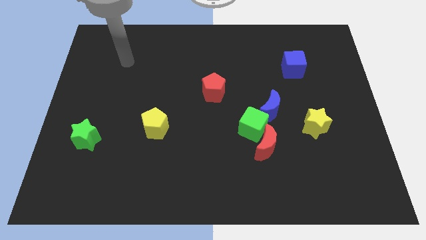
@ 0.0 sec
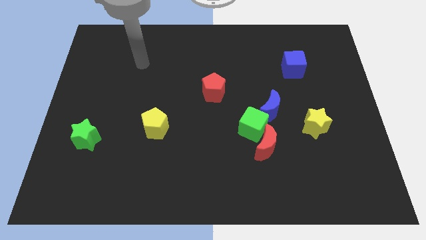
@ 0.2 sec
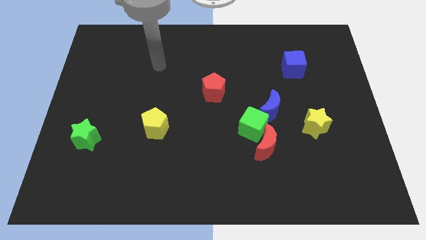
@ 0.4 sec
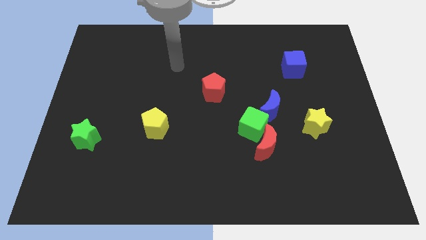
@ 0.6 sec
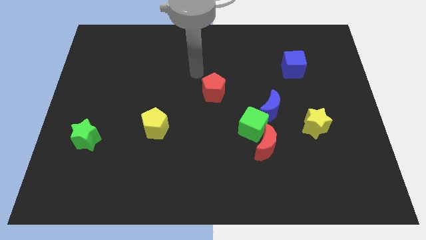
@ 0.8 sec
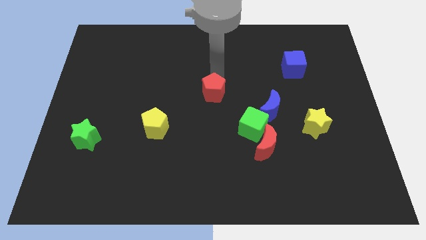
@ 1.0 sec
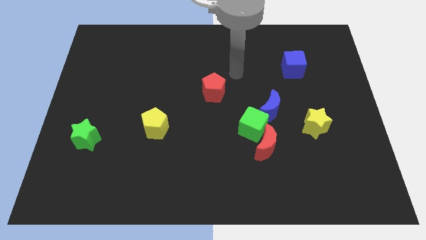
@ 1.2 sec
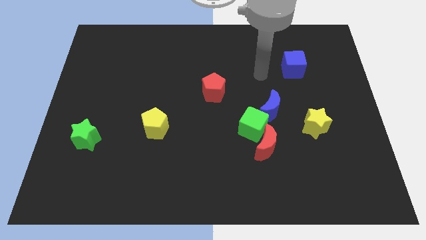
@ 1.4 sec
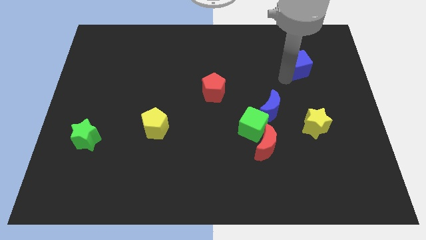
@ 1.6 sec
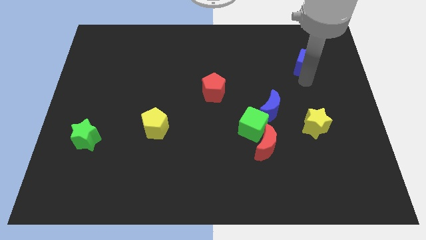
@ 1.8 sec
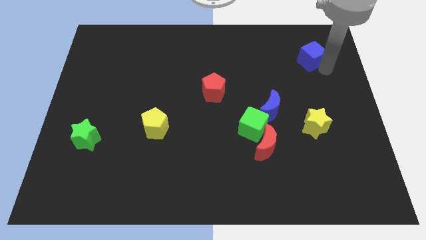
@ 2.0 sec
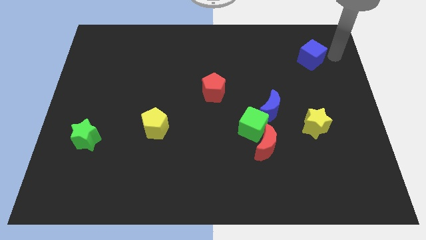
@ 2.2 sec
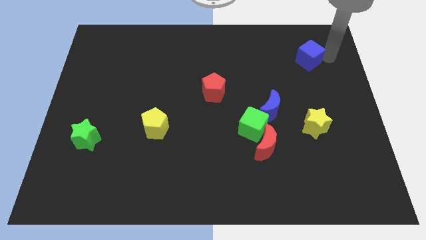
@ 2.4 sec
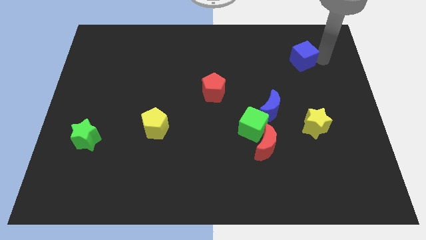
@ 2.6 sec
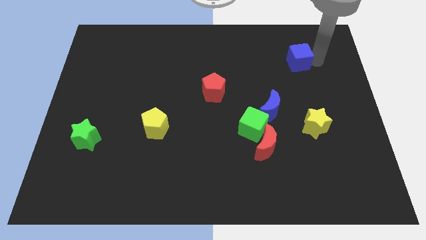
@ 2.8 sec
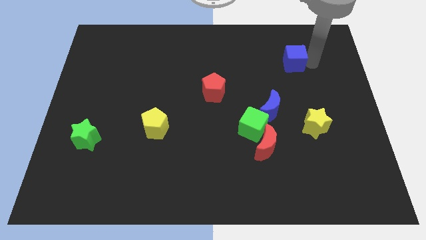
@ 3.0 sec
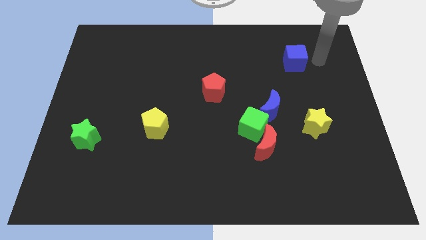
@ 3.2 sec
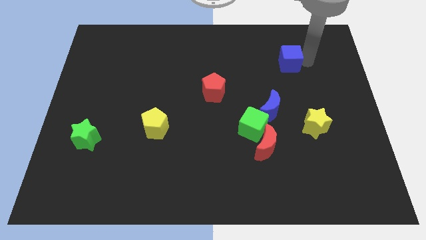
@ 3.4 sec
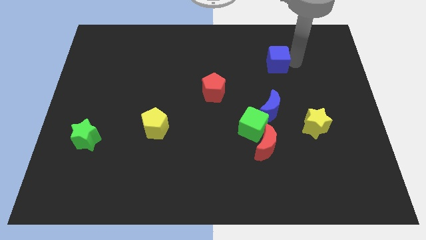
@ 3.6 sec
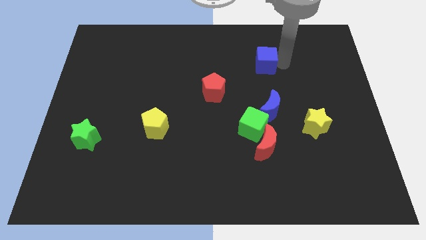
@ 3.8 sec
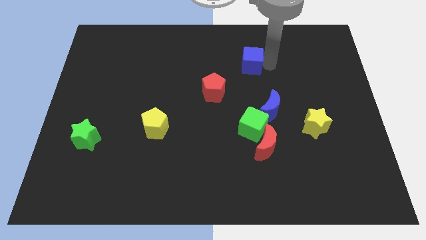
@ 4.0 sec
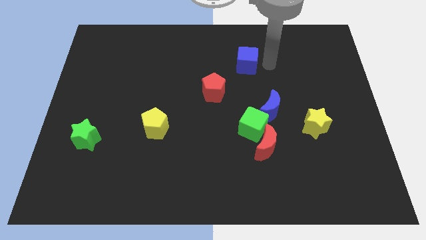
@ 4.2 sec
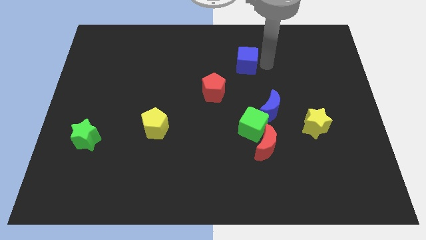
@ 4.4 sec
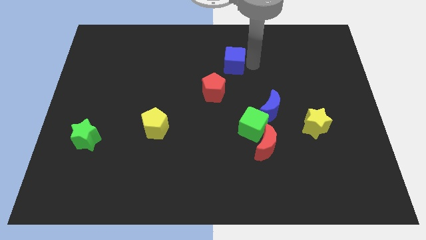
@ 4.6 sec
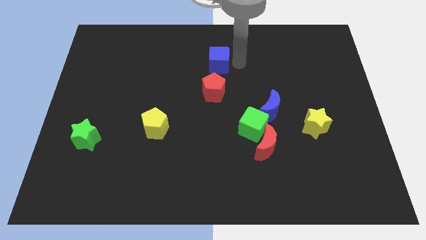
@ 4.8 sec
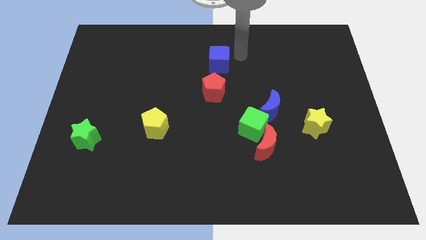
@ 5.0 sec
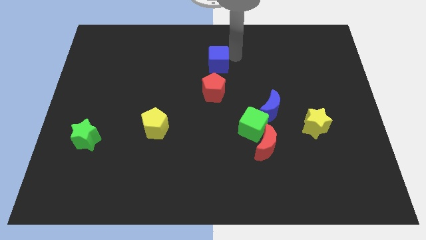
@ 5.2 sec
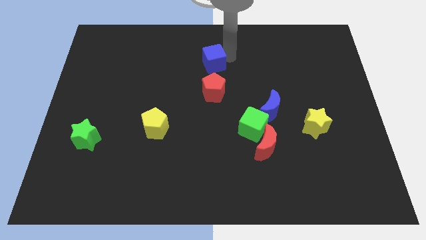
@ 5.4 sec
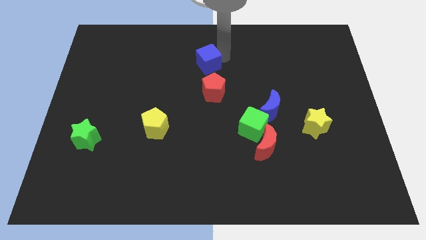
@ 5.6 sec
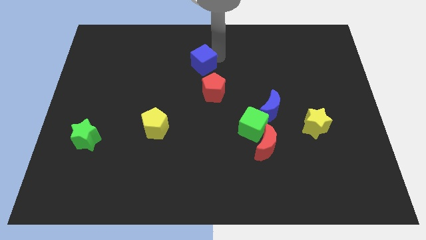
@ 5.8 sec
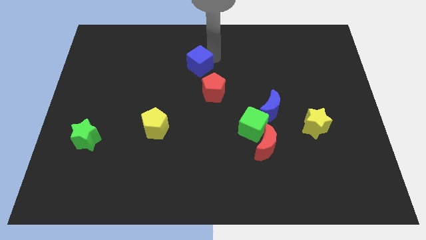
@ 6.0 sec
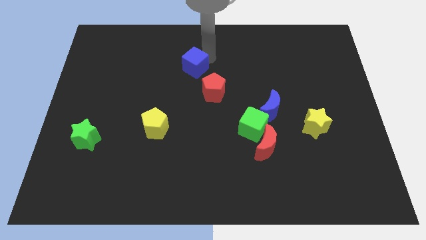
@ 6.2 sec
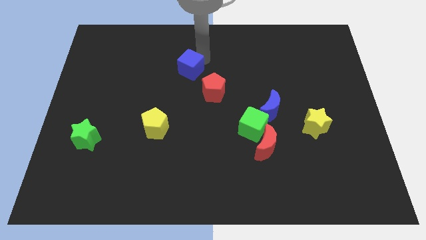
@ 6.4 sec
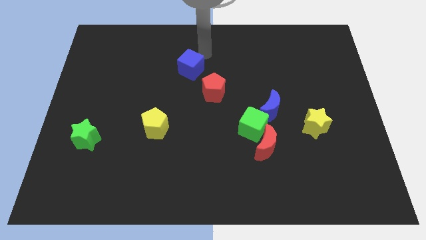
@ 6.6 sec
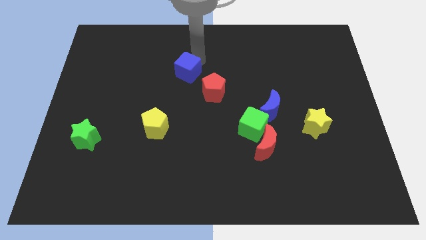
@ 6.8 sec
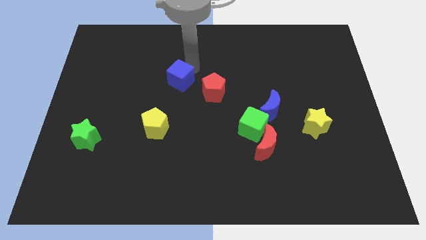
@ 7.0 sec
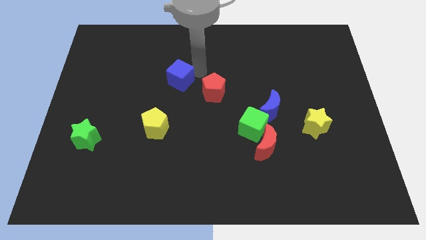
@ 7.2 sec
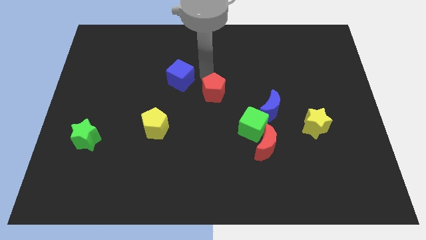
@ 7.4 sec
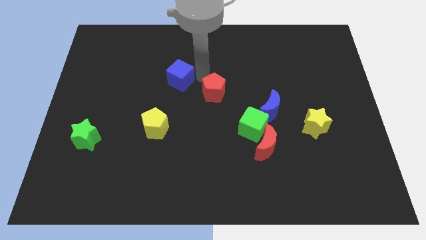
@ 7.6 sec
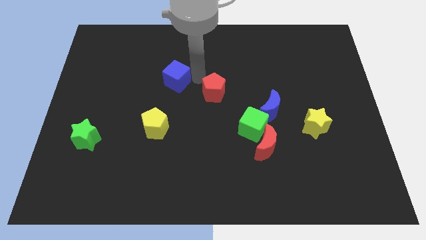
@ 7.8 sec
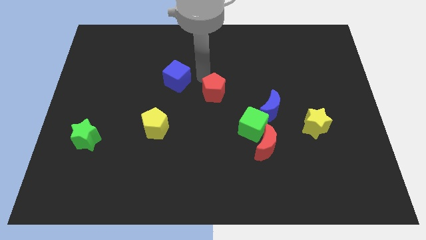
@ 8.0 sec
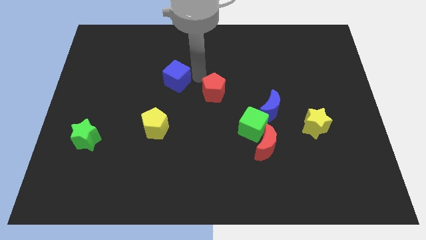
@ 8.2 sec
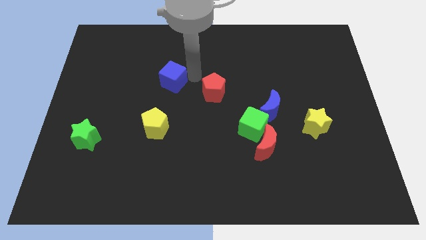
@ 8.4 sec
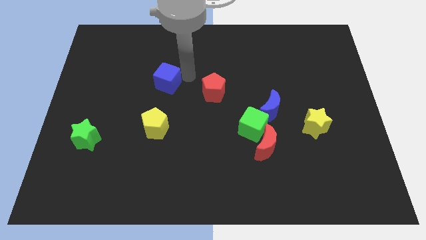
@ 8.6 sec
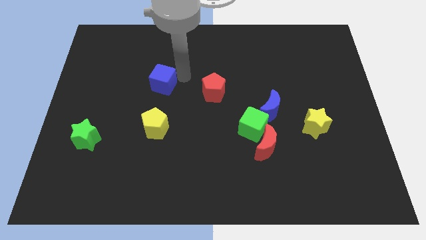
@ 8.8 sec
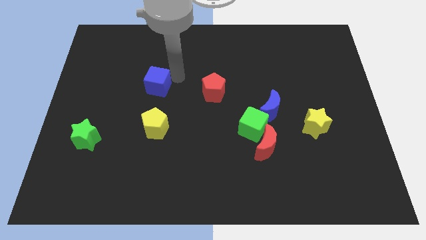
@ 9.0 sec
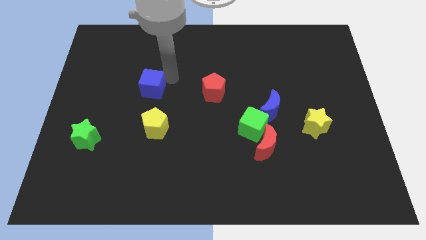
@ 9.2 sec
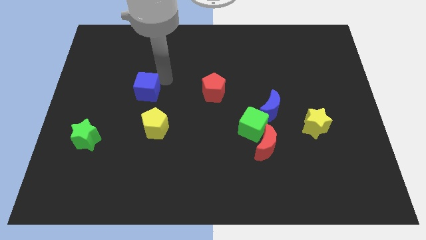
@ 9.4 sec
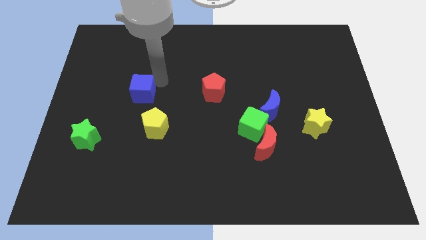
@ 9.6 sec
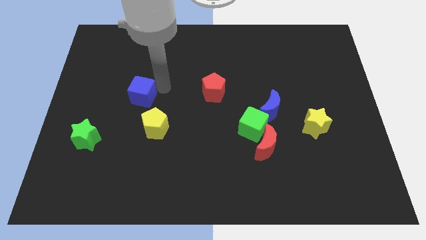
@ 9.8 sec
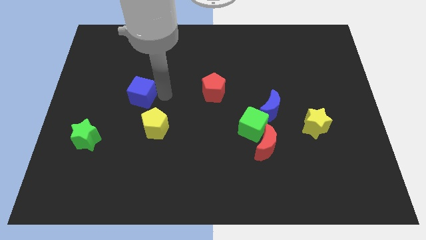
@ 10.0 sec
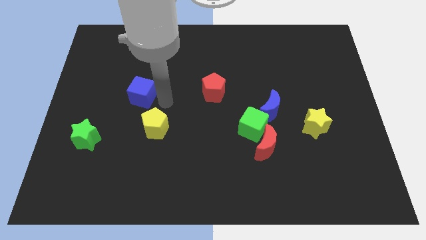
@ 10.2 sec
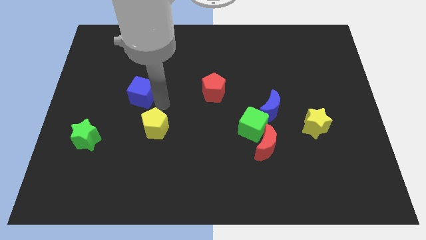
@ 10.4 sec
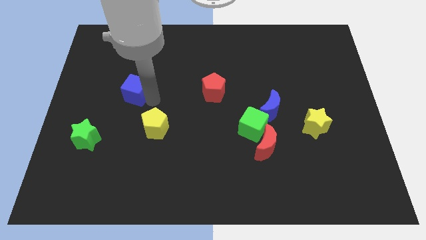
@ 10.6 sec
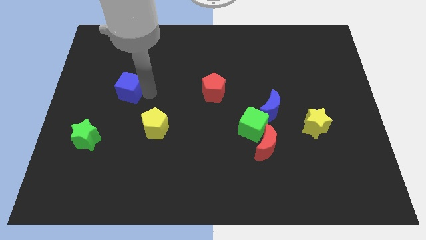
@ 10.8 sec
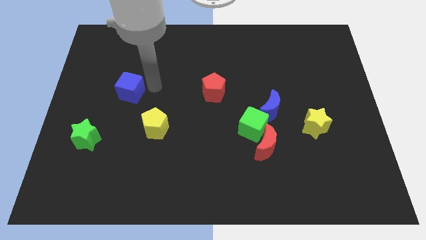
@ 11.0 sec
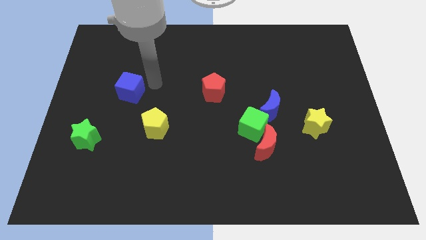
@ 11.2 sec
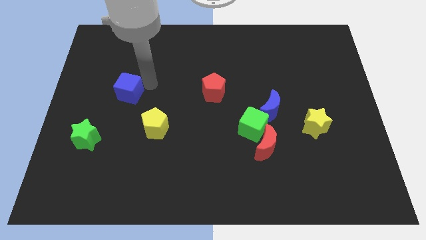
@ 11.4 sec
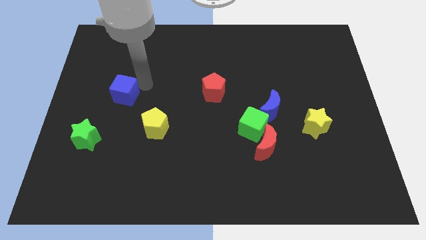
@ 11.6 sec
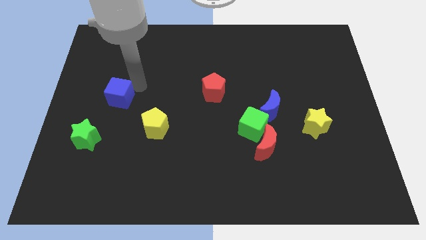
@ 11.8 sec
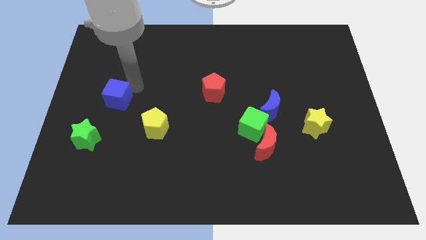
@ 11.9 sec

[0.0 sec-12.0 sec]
put the blue cube to the top of the green star
